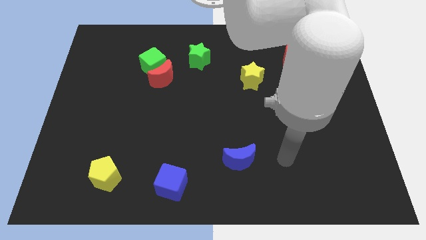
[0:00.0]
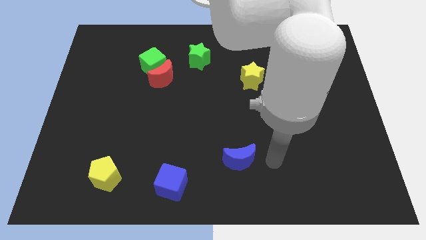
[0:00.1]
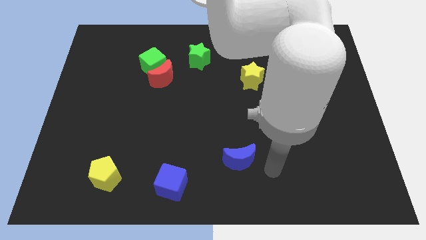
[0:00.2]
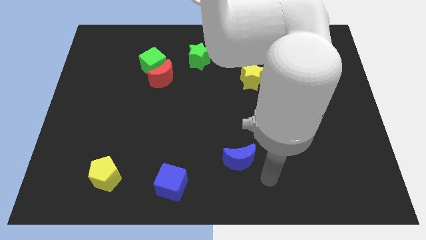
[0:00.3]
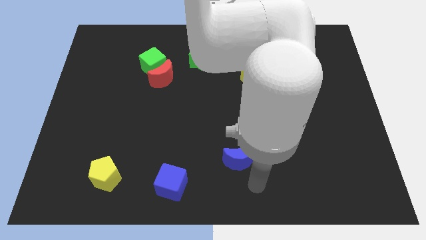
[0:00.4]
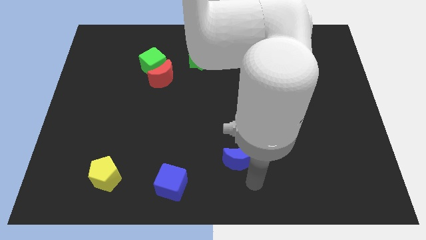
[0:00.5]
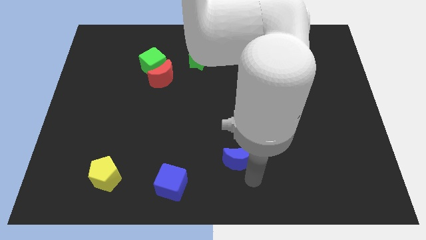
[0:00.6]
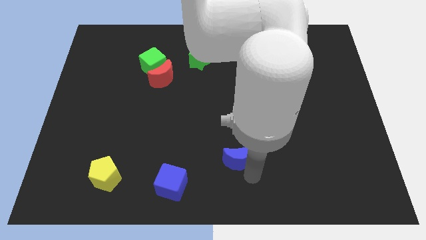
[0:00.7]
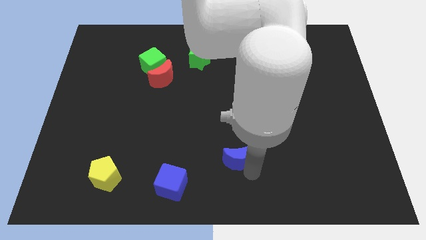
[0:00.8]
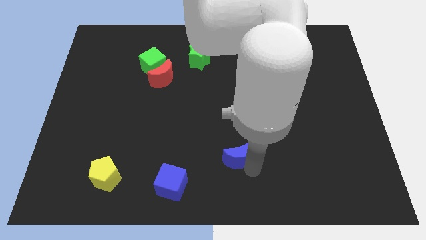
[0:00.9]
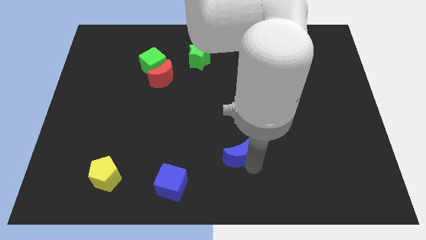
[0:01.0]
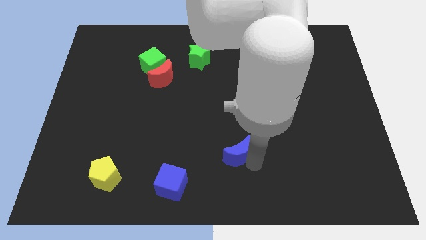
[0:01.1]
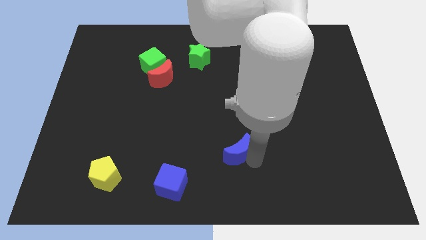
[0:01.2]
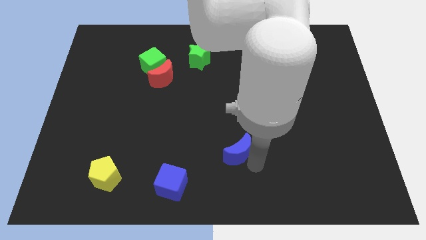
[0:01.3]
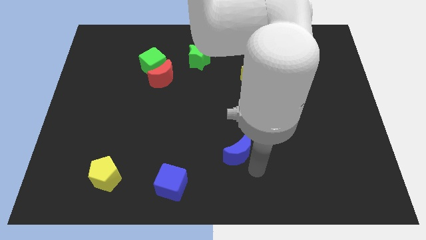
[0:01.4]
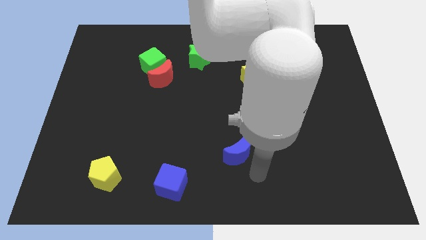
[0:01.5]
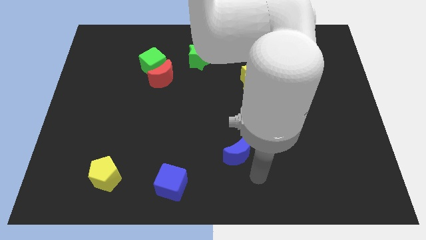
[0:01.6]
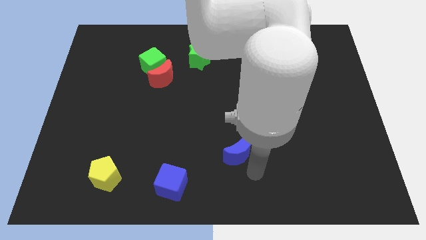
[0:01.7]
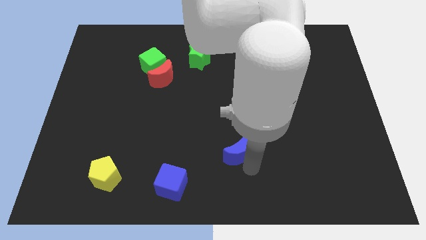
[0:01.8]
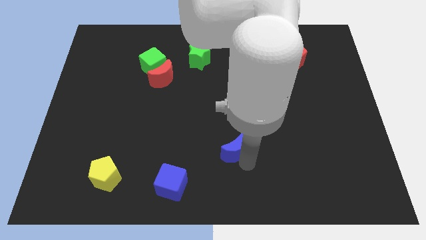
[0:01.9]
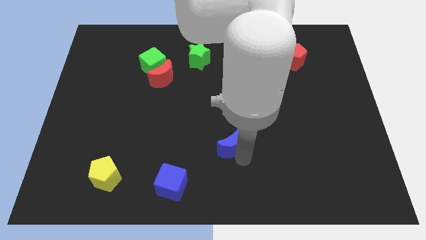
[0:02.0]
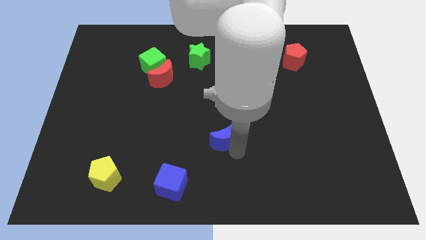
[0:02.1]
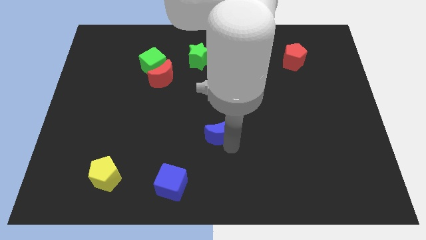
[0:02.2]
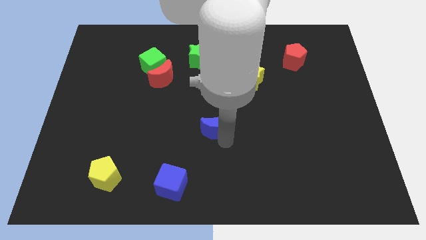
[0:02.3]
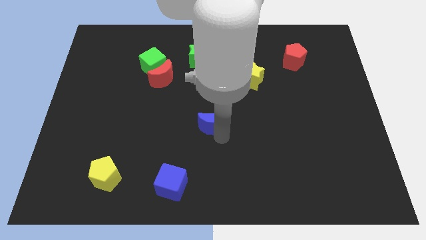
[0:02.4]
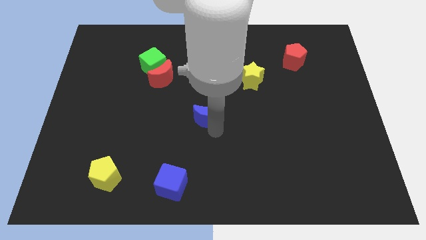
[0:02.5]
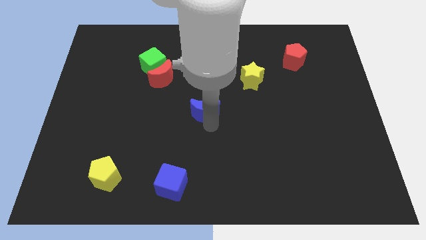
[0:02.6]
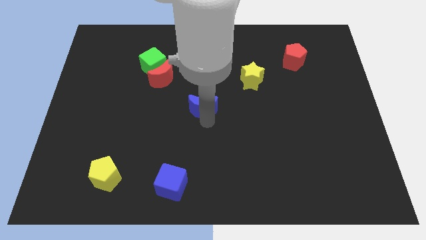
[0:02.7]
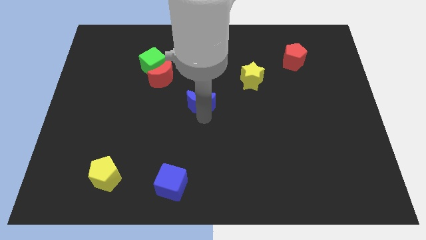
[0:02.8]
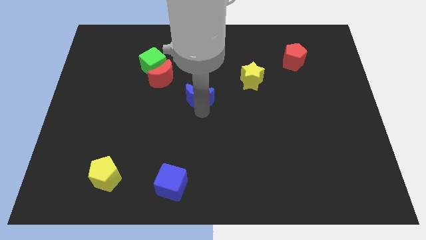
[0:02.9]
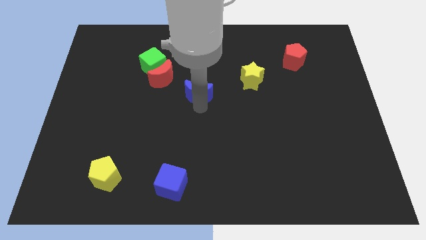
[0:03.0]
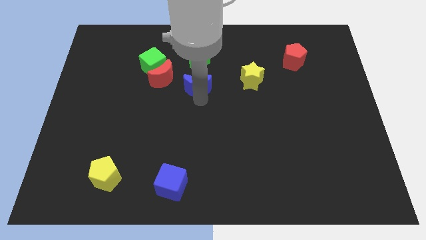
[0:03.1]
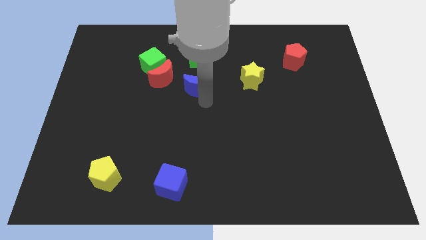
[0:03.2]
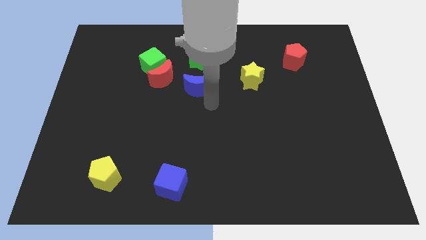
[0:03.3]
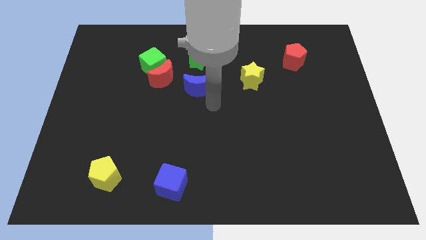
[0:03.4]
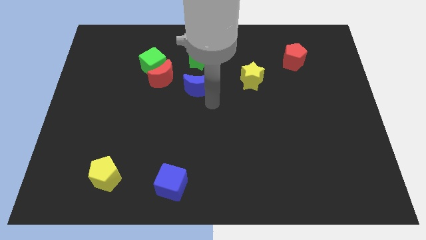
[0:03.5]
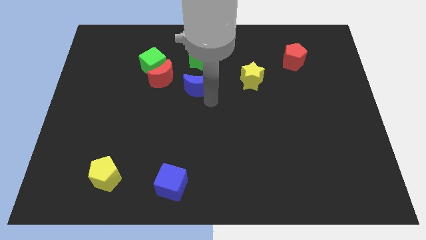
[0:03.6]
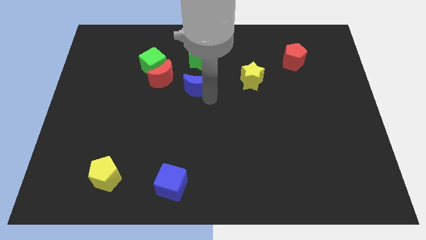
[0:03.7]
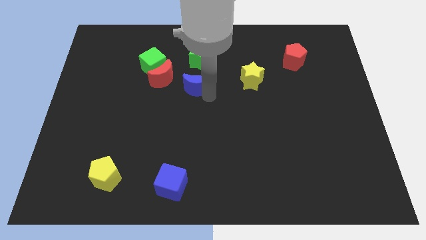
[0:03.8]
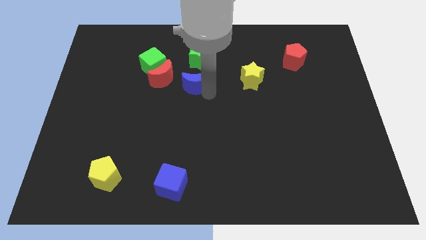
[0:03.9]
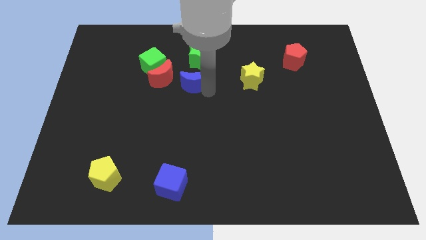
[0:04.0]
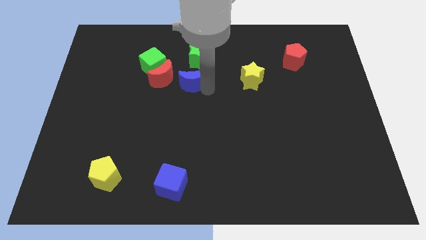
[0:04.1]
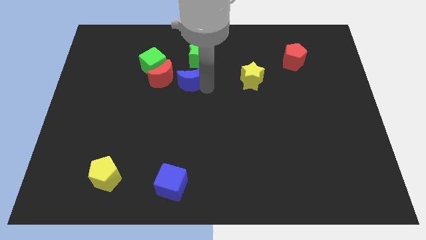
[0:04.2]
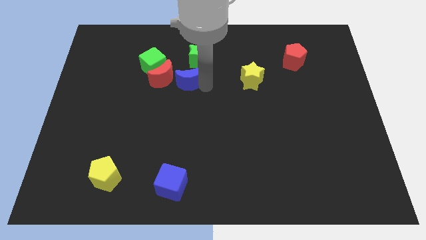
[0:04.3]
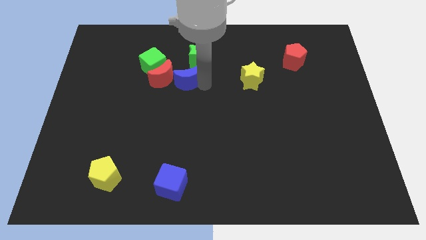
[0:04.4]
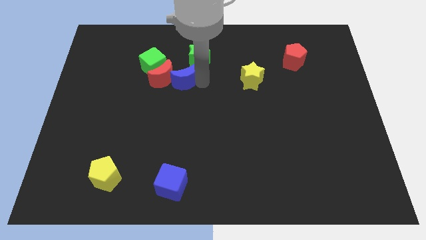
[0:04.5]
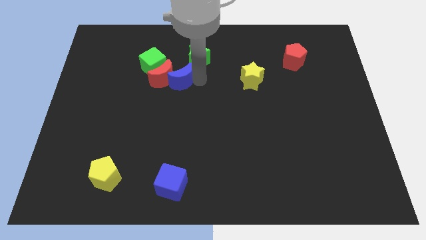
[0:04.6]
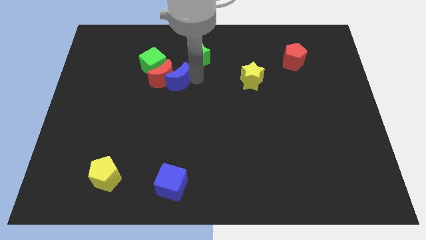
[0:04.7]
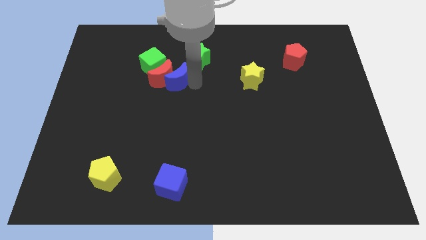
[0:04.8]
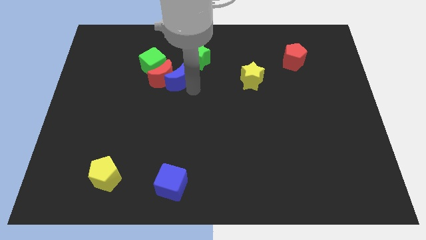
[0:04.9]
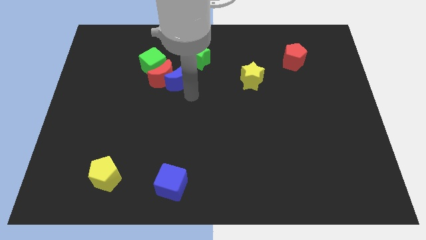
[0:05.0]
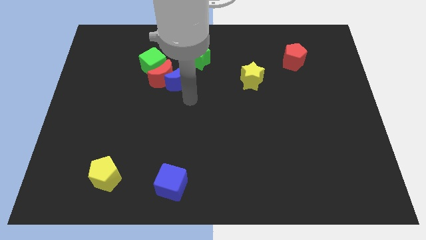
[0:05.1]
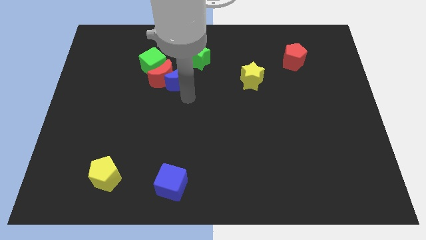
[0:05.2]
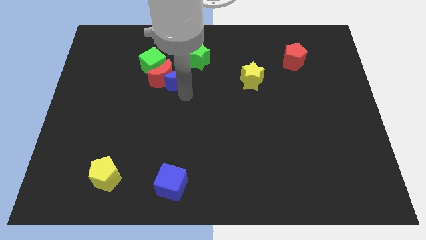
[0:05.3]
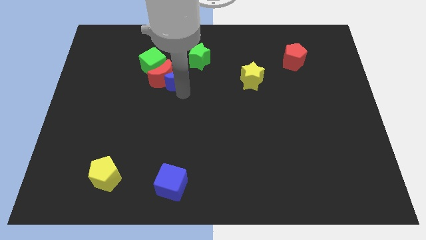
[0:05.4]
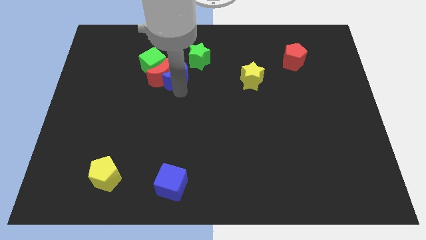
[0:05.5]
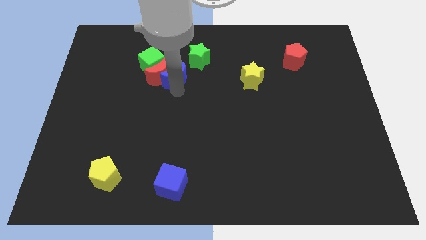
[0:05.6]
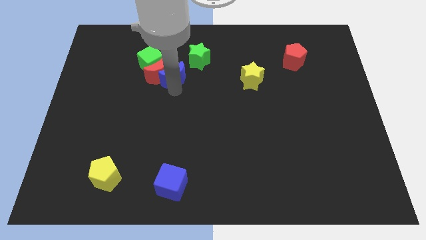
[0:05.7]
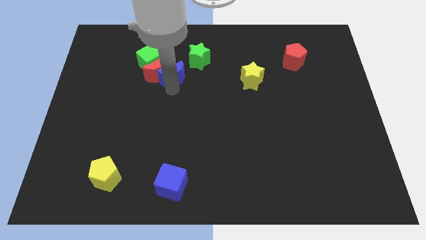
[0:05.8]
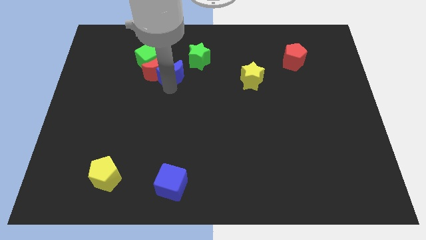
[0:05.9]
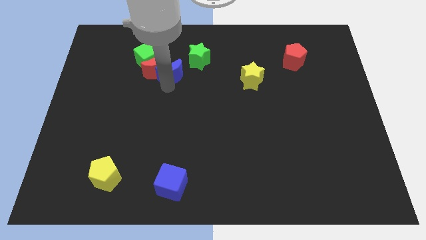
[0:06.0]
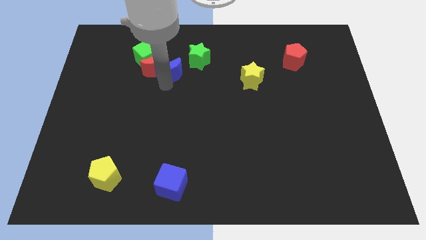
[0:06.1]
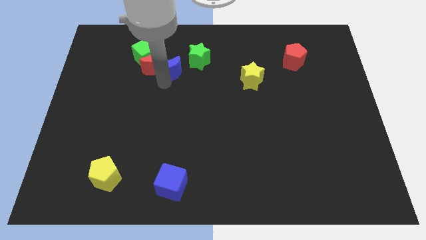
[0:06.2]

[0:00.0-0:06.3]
push the blue moon to the left of the green star

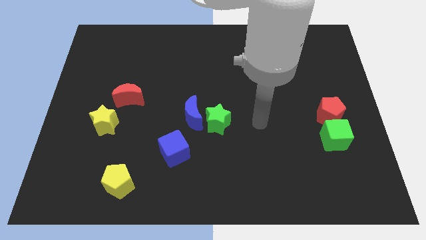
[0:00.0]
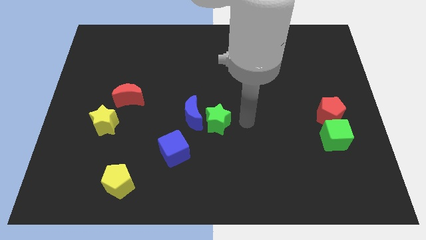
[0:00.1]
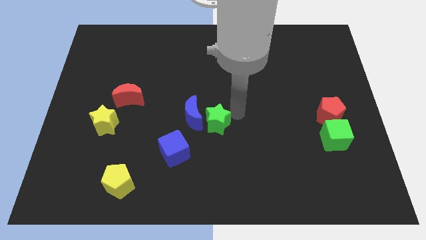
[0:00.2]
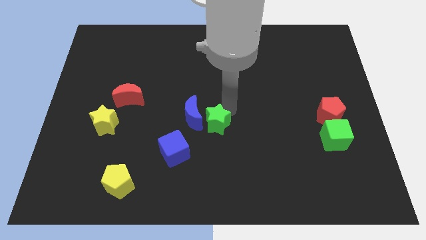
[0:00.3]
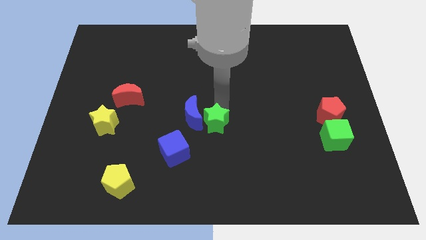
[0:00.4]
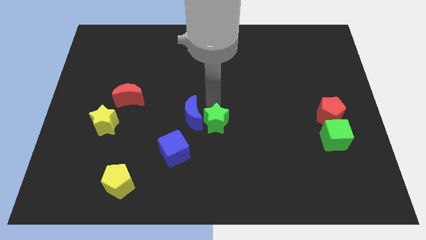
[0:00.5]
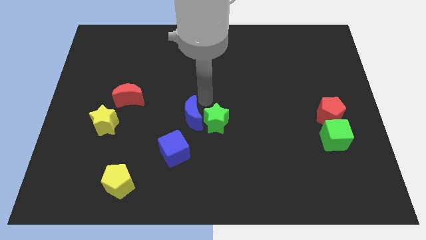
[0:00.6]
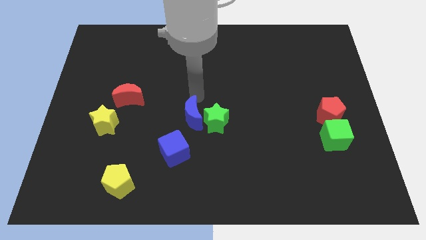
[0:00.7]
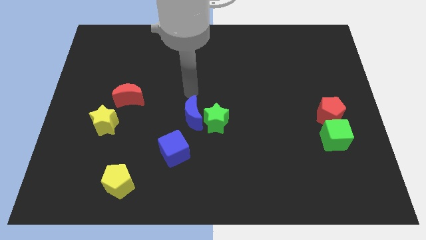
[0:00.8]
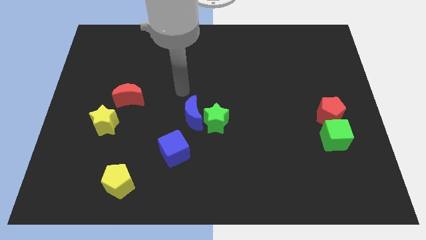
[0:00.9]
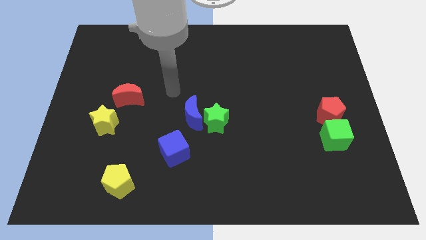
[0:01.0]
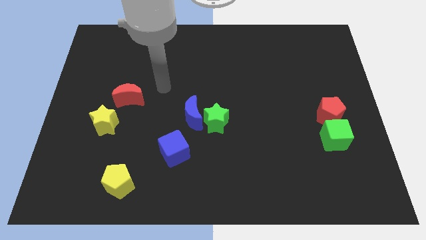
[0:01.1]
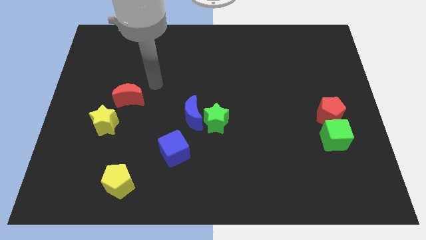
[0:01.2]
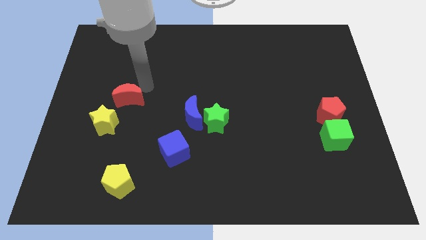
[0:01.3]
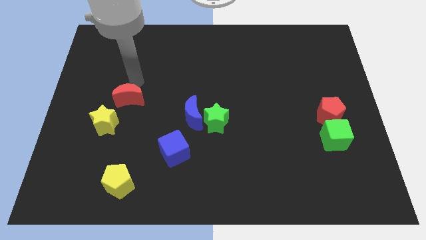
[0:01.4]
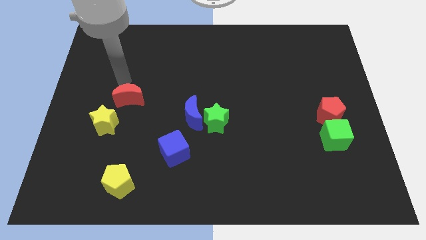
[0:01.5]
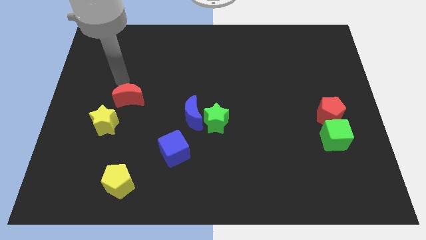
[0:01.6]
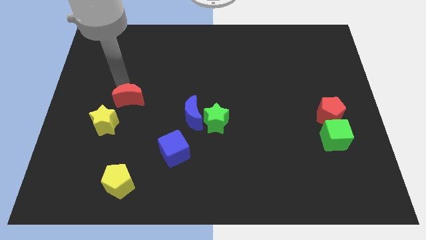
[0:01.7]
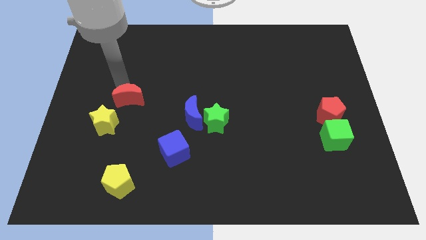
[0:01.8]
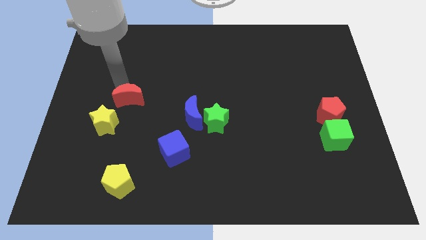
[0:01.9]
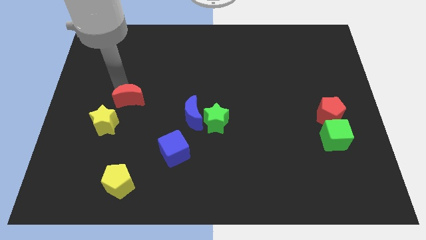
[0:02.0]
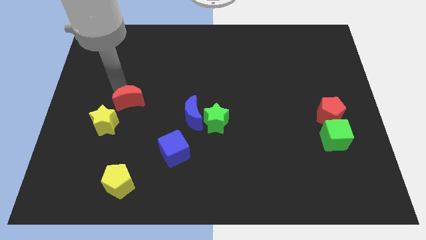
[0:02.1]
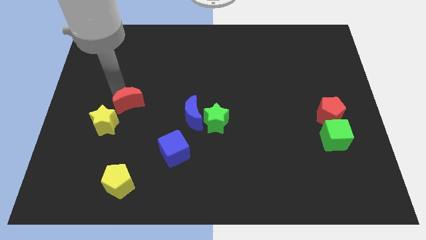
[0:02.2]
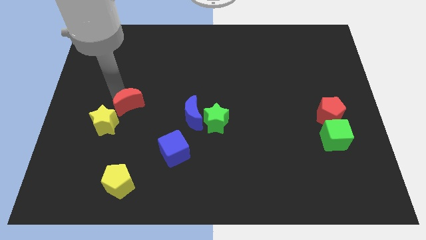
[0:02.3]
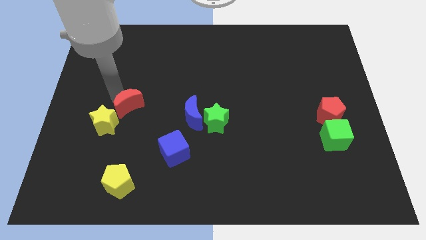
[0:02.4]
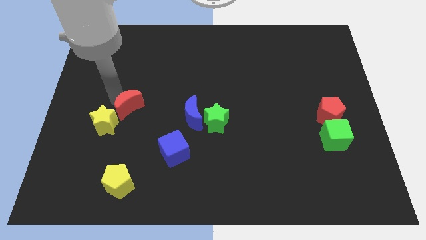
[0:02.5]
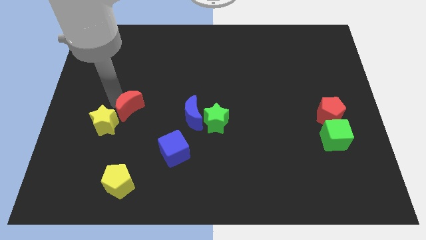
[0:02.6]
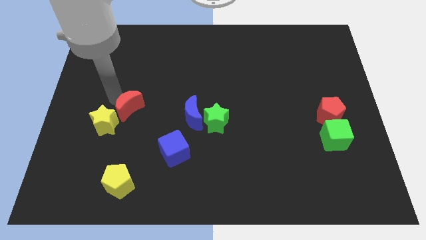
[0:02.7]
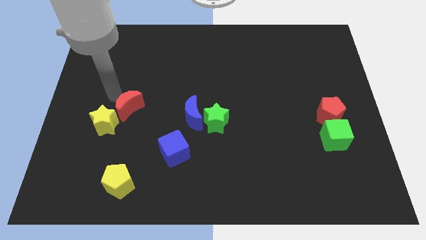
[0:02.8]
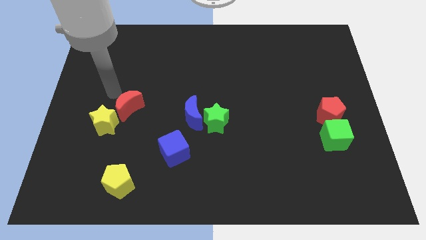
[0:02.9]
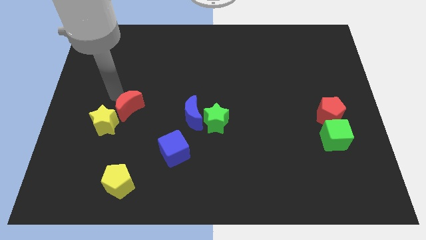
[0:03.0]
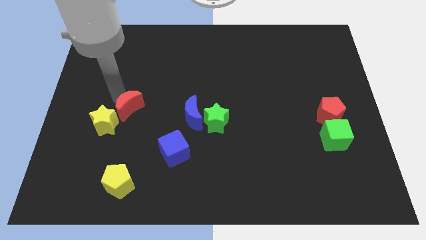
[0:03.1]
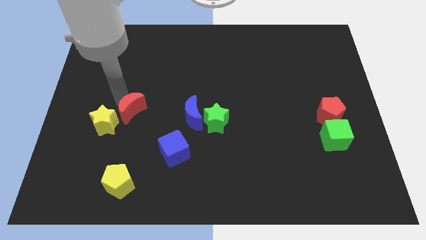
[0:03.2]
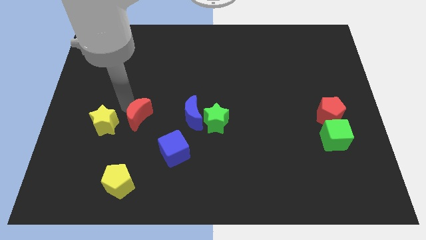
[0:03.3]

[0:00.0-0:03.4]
put the red moon to the top left of the blue cube
